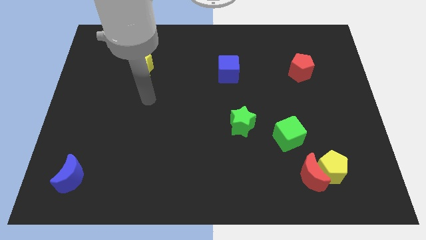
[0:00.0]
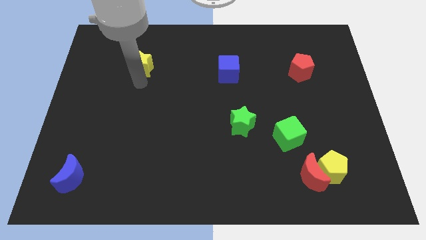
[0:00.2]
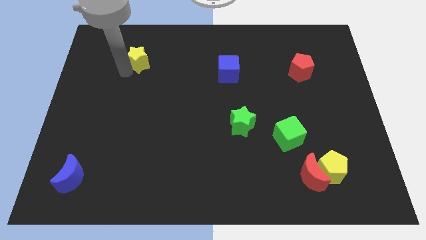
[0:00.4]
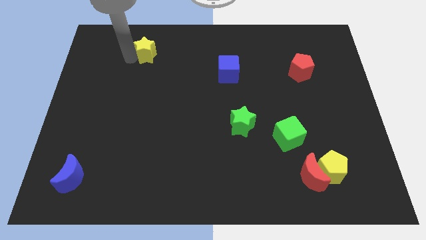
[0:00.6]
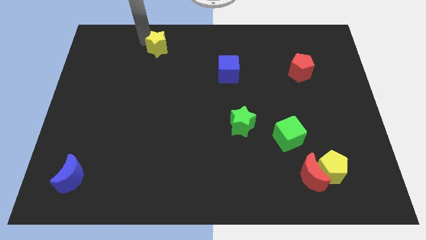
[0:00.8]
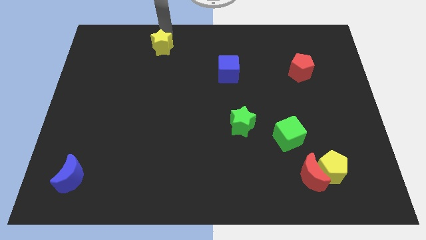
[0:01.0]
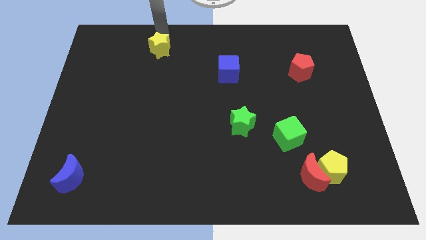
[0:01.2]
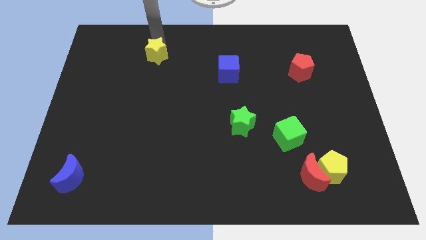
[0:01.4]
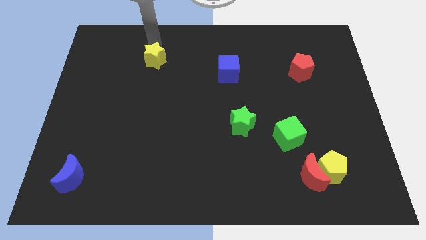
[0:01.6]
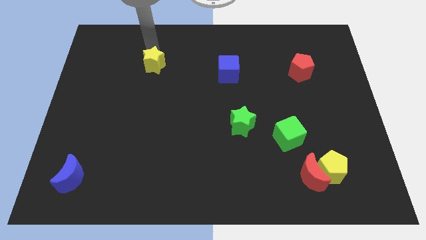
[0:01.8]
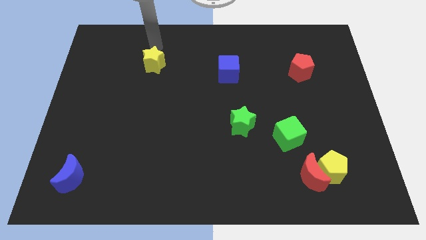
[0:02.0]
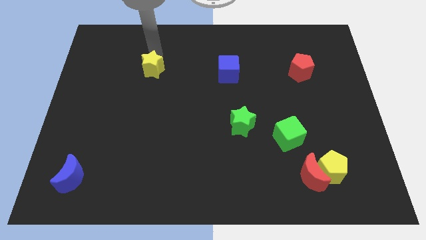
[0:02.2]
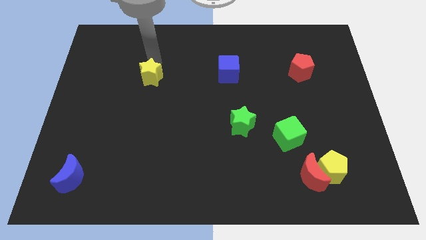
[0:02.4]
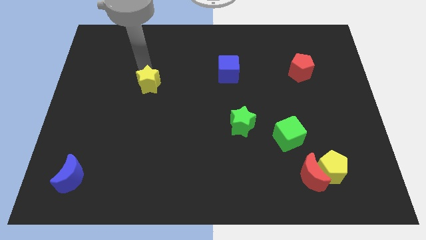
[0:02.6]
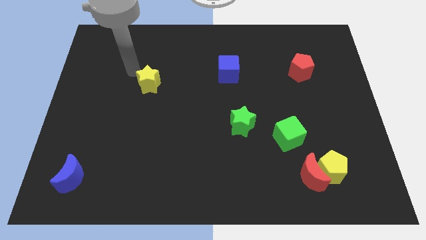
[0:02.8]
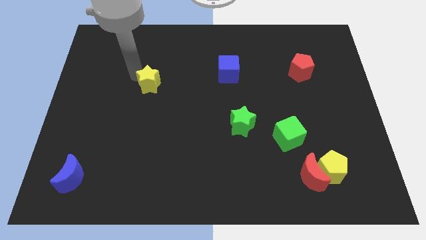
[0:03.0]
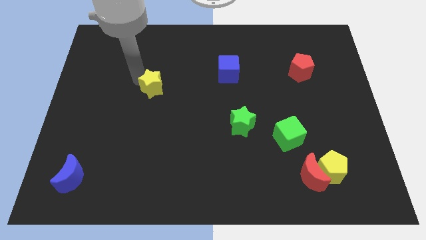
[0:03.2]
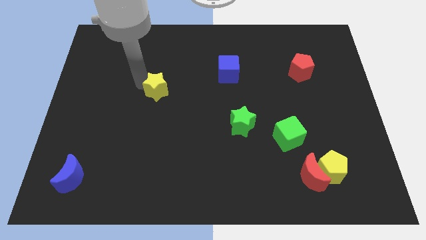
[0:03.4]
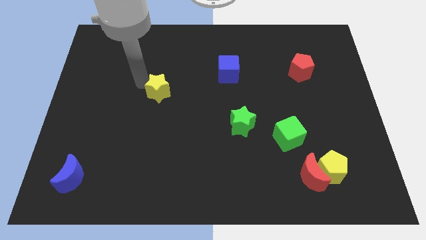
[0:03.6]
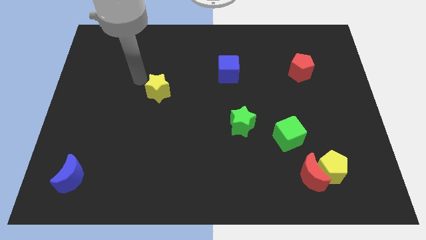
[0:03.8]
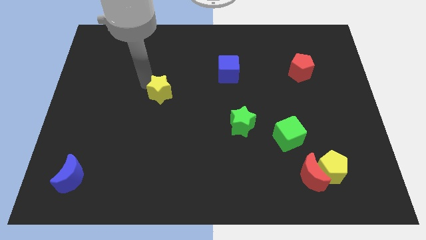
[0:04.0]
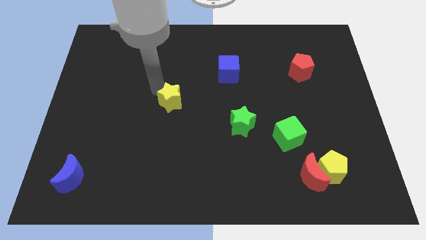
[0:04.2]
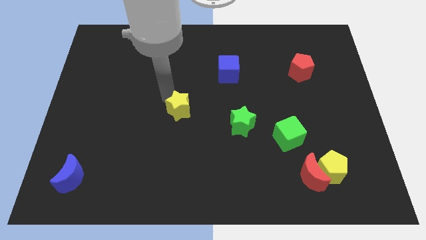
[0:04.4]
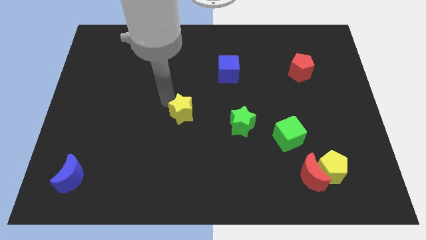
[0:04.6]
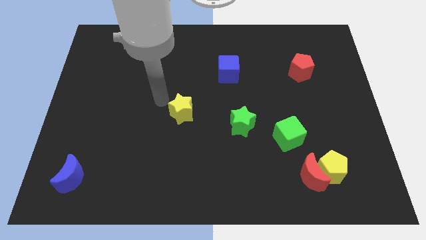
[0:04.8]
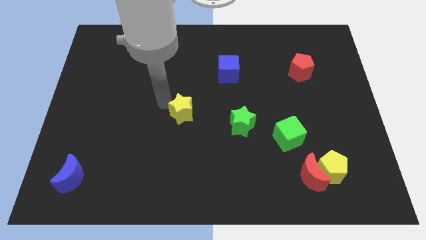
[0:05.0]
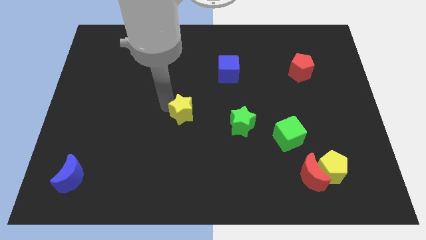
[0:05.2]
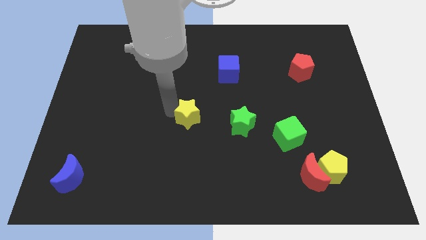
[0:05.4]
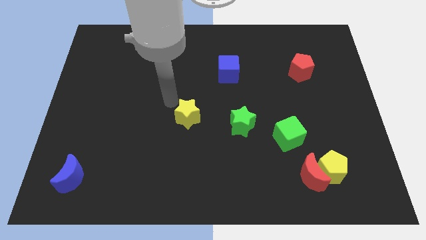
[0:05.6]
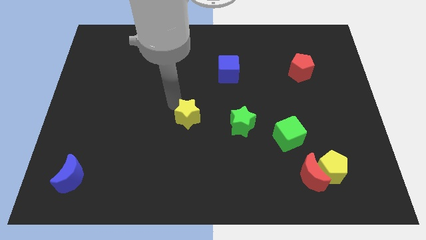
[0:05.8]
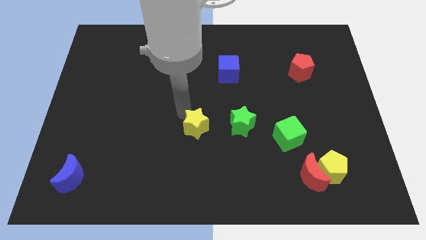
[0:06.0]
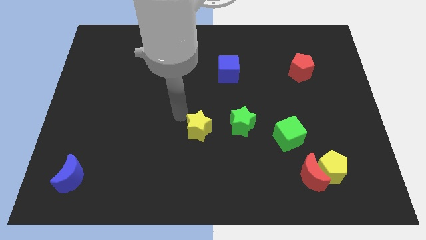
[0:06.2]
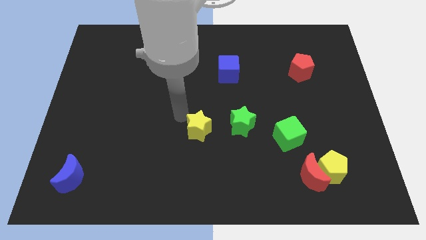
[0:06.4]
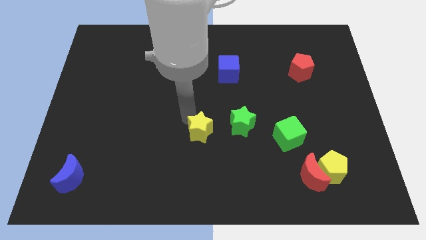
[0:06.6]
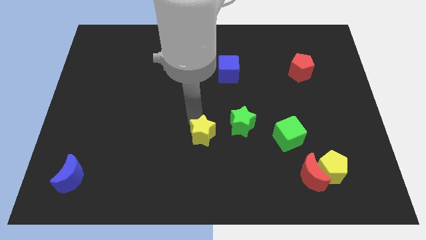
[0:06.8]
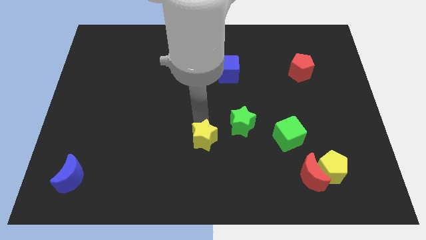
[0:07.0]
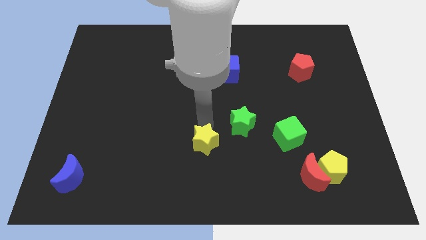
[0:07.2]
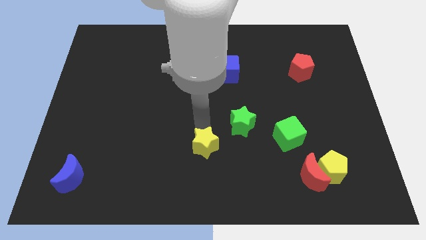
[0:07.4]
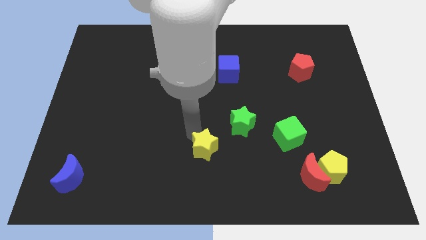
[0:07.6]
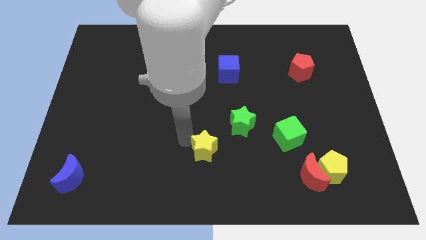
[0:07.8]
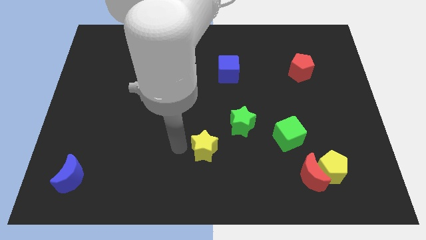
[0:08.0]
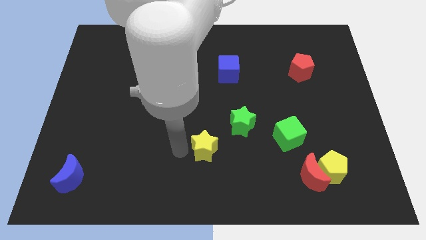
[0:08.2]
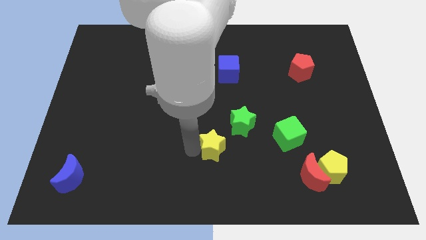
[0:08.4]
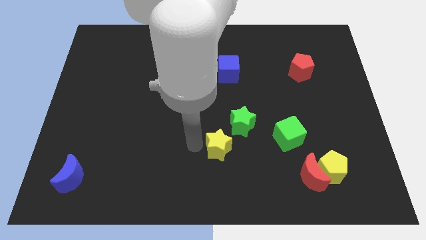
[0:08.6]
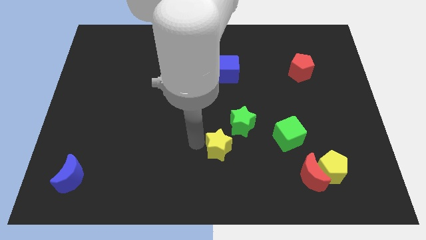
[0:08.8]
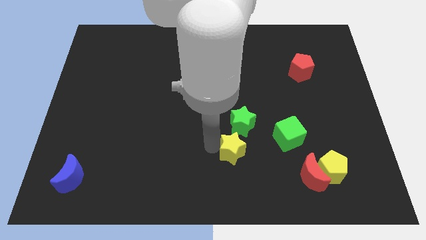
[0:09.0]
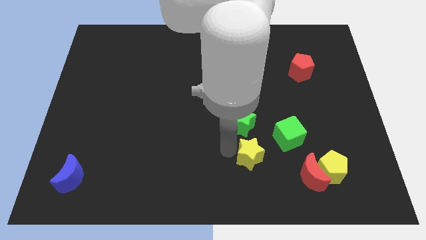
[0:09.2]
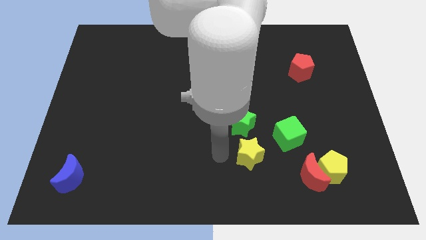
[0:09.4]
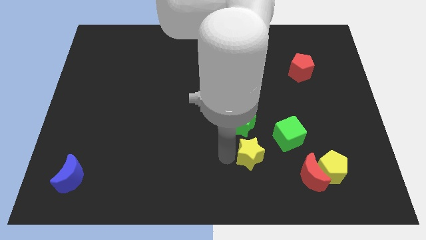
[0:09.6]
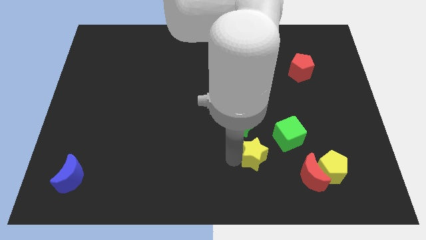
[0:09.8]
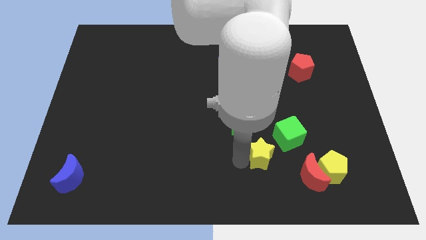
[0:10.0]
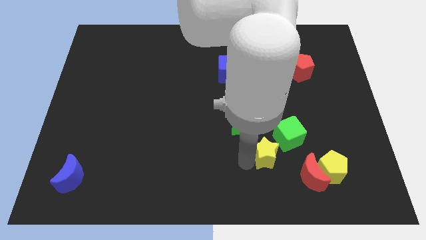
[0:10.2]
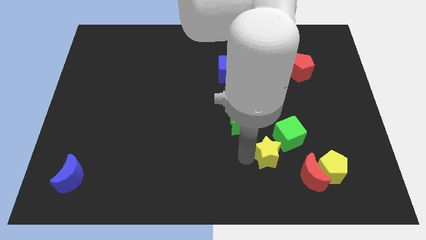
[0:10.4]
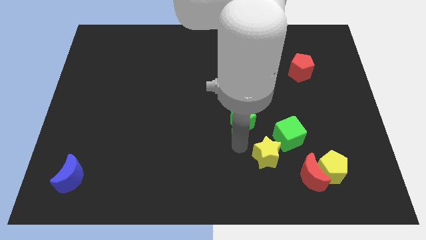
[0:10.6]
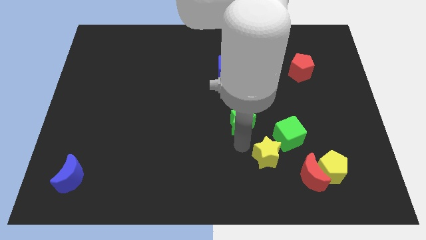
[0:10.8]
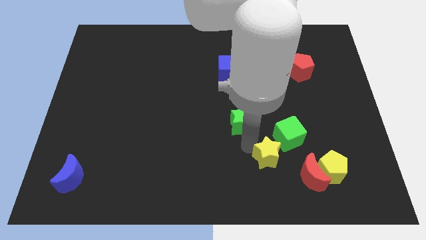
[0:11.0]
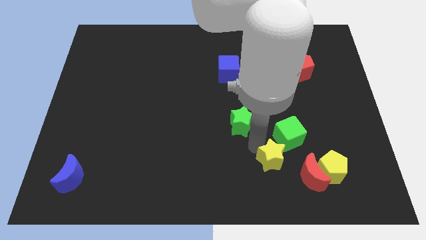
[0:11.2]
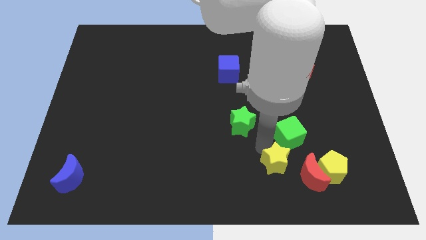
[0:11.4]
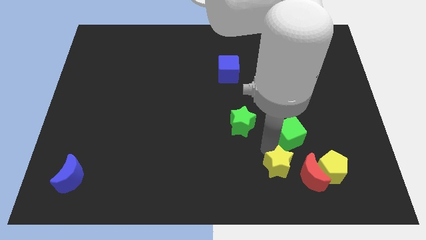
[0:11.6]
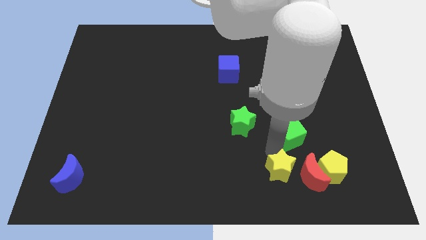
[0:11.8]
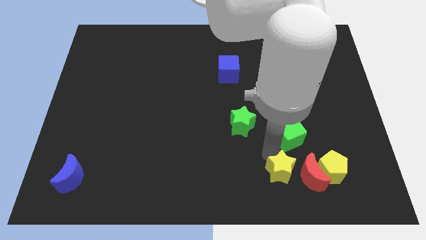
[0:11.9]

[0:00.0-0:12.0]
push the yellow star next to the red moon

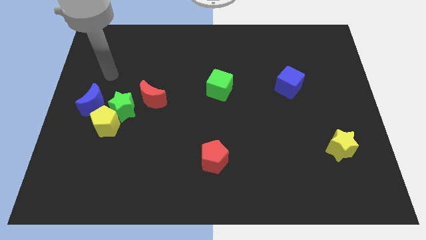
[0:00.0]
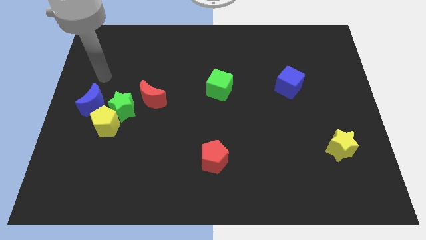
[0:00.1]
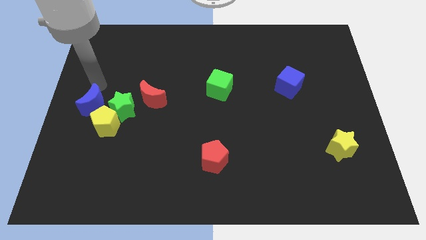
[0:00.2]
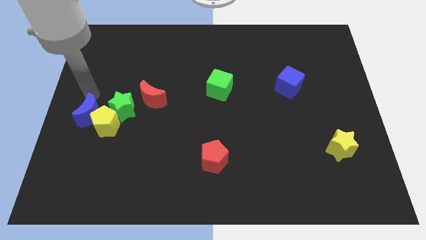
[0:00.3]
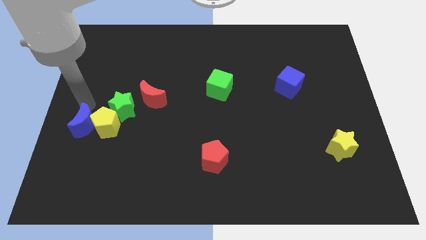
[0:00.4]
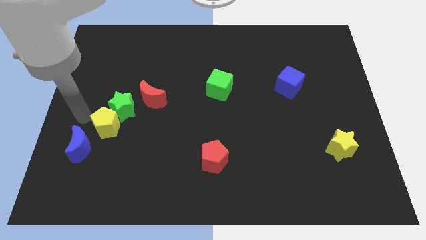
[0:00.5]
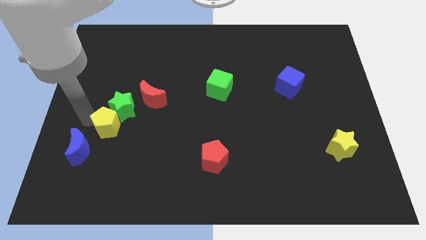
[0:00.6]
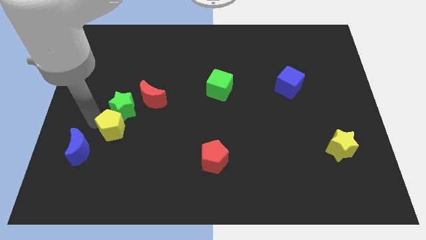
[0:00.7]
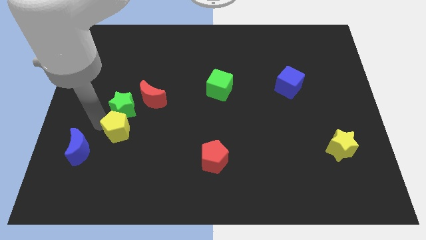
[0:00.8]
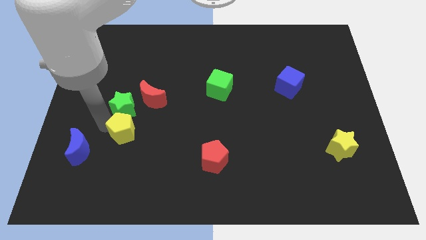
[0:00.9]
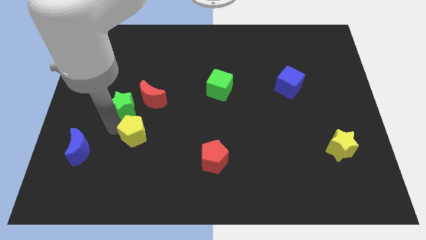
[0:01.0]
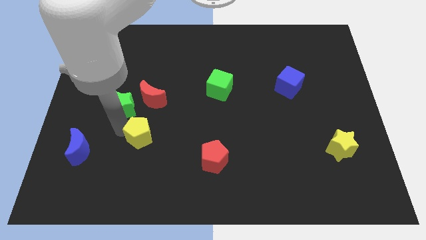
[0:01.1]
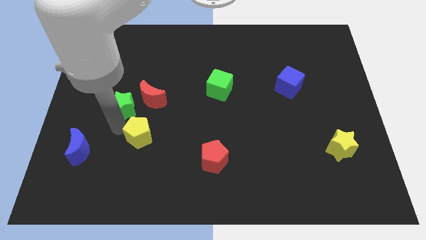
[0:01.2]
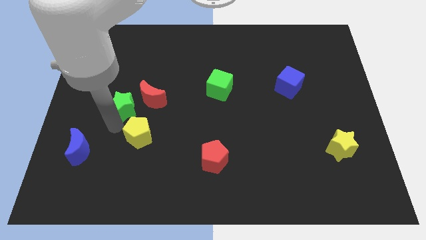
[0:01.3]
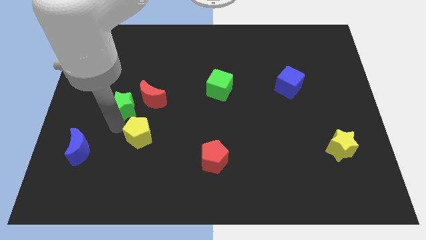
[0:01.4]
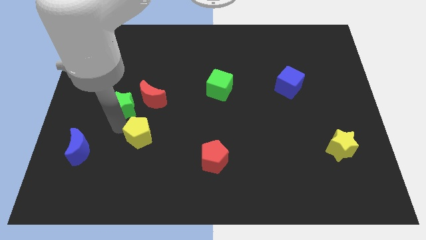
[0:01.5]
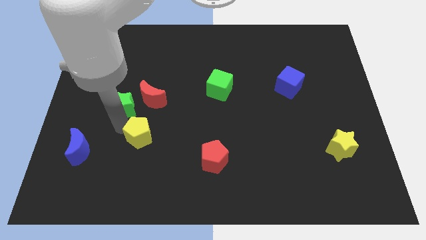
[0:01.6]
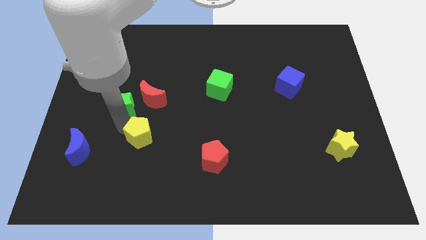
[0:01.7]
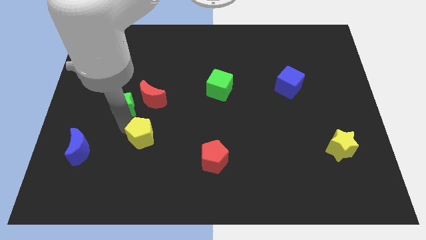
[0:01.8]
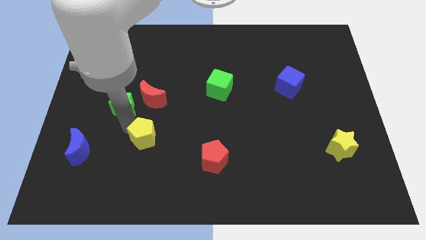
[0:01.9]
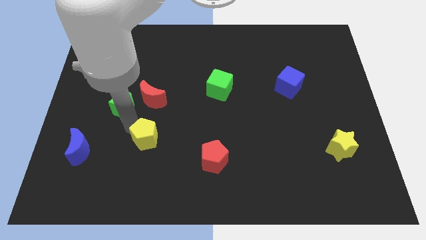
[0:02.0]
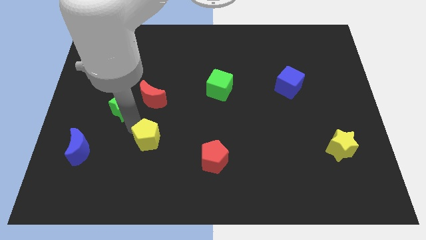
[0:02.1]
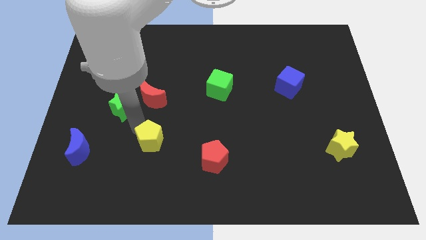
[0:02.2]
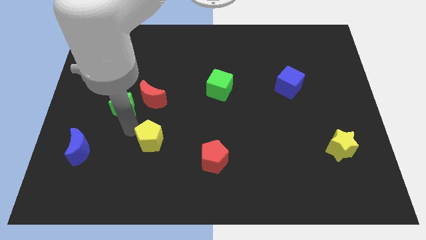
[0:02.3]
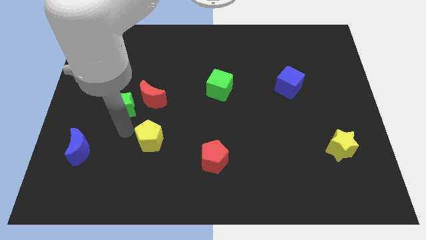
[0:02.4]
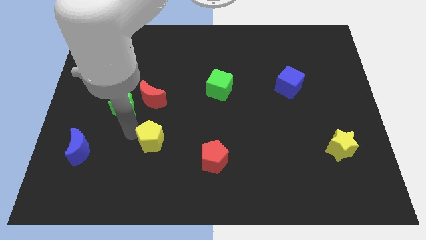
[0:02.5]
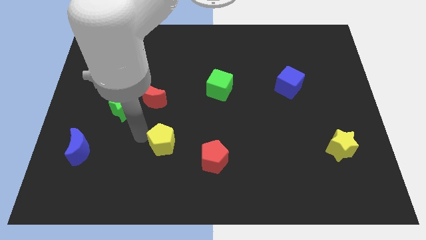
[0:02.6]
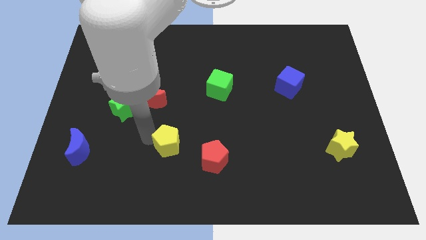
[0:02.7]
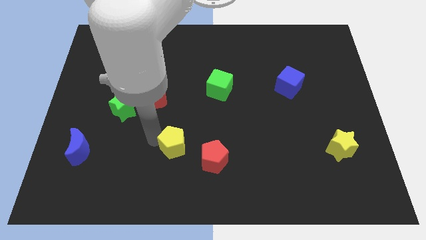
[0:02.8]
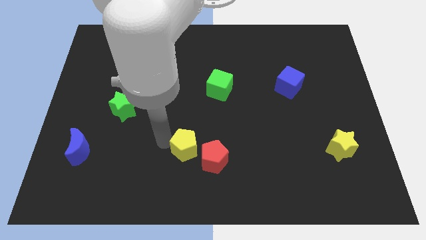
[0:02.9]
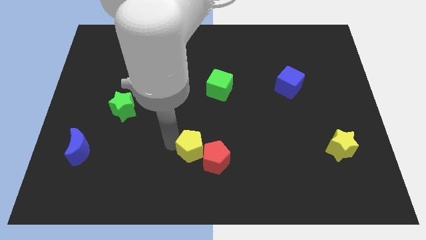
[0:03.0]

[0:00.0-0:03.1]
move the yellow pentagon towards the red pentagon
